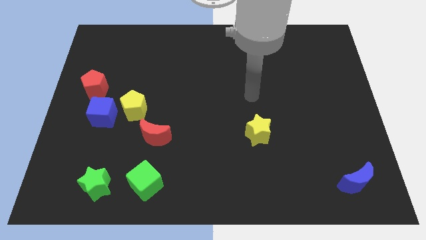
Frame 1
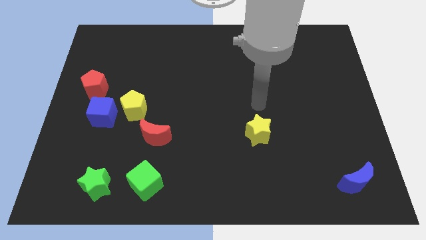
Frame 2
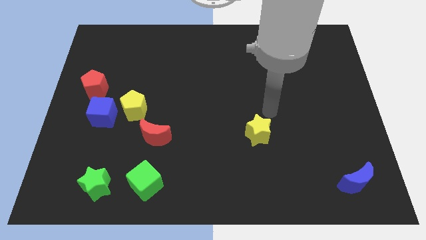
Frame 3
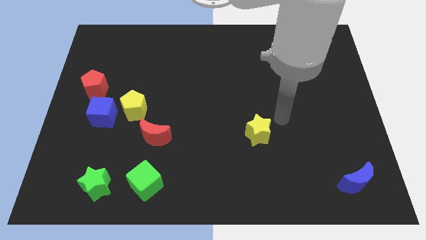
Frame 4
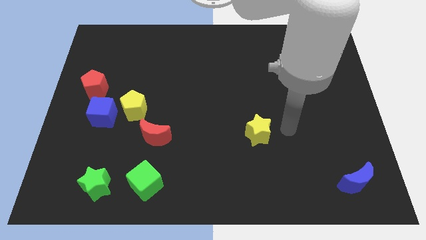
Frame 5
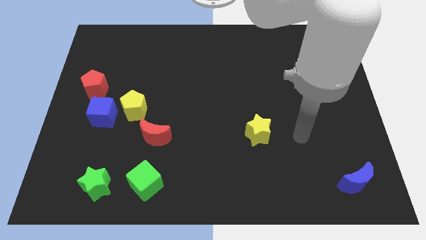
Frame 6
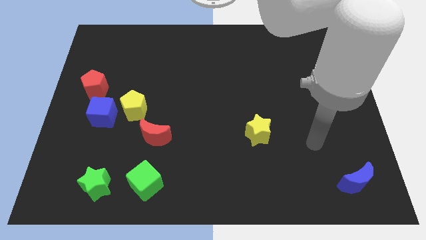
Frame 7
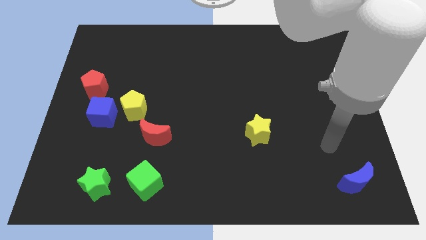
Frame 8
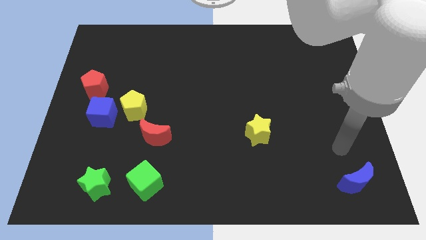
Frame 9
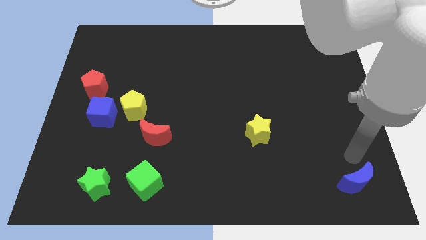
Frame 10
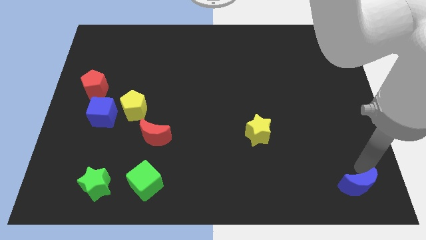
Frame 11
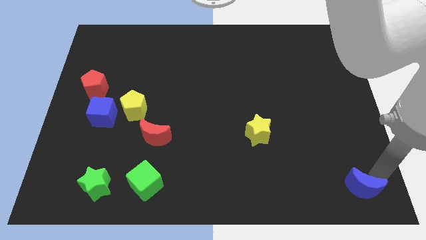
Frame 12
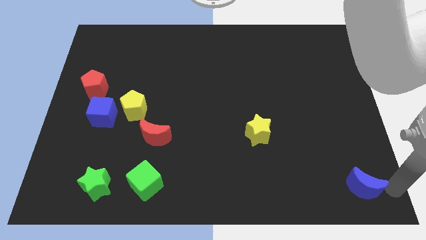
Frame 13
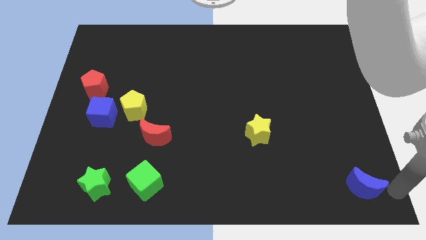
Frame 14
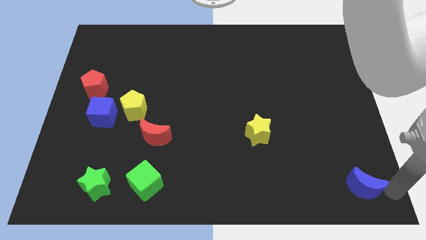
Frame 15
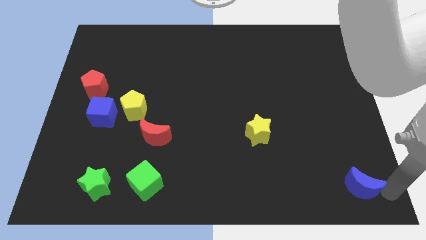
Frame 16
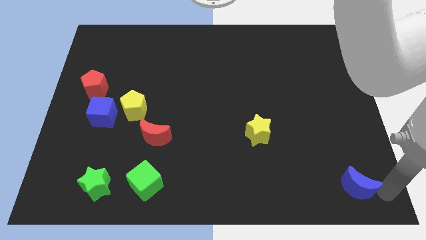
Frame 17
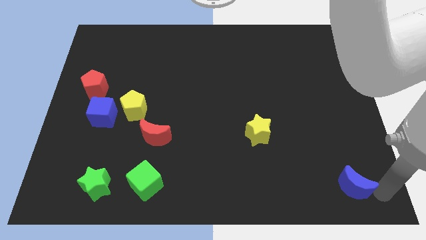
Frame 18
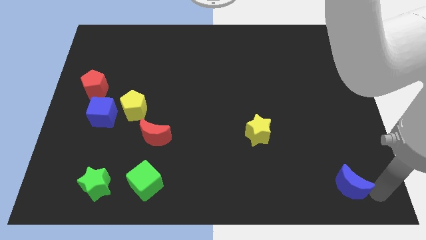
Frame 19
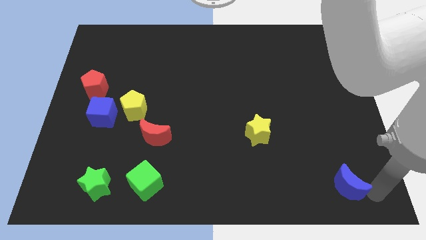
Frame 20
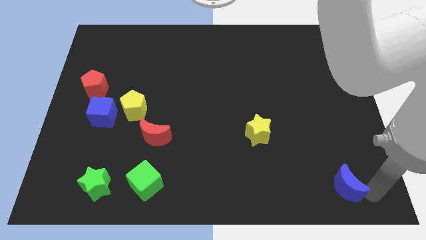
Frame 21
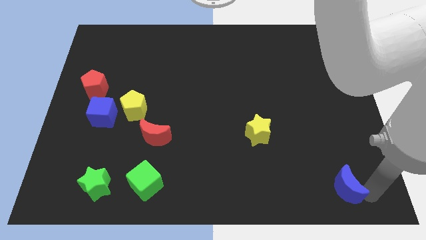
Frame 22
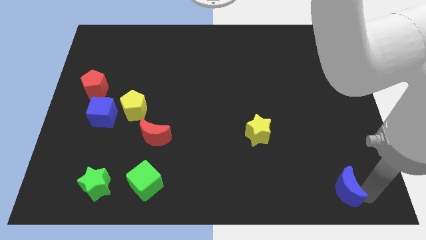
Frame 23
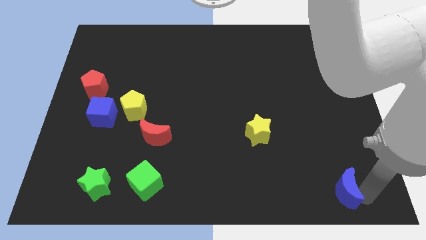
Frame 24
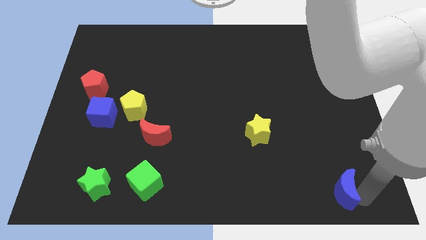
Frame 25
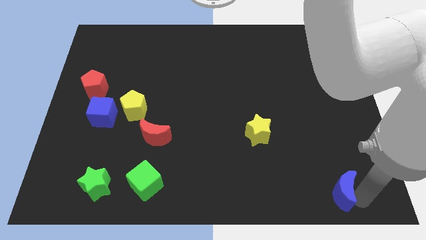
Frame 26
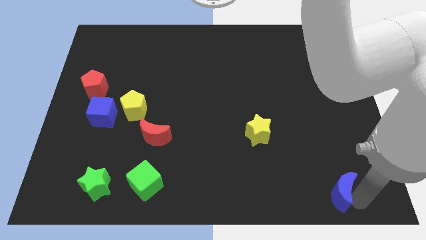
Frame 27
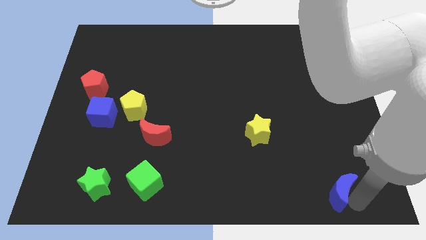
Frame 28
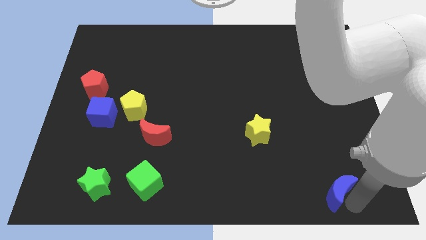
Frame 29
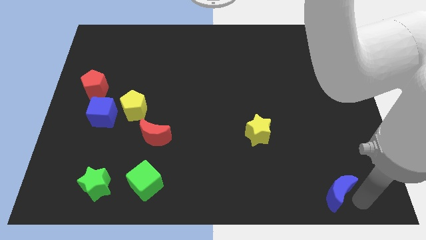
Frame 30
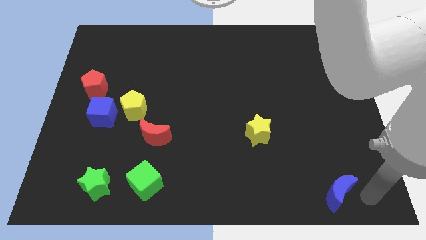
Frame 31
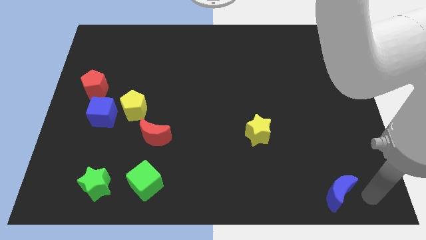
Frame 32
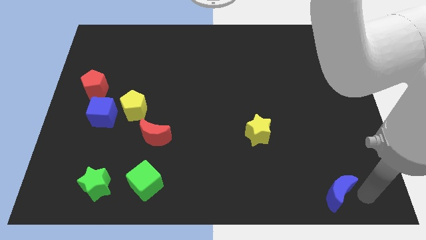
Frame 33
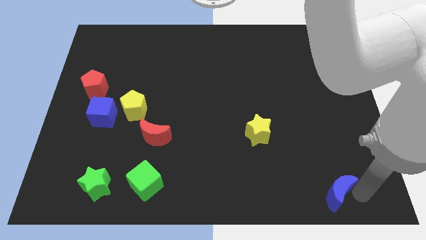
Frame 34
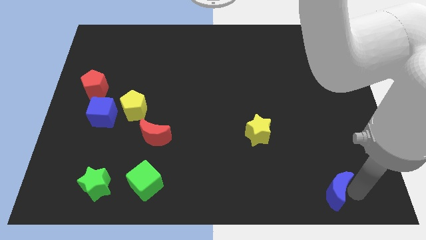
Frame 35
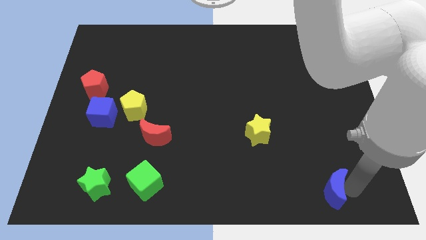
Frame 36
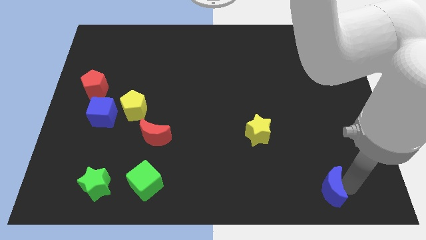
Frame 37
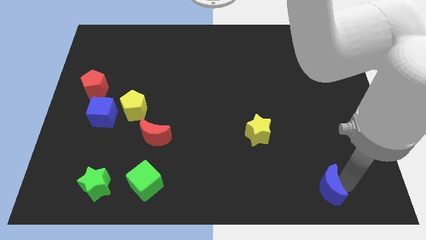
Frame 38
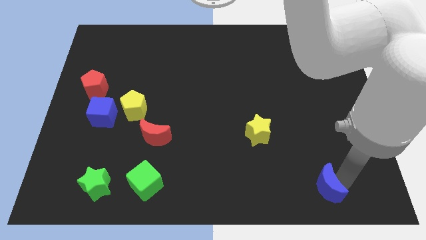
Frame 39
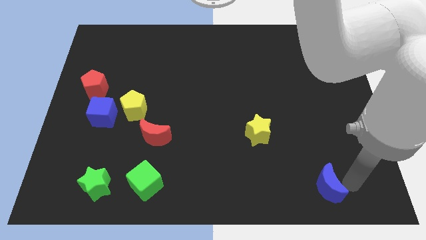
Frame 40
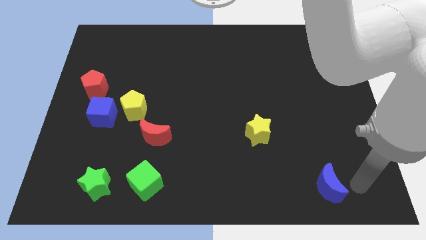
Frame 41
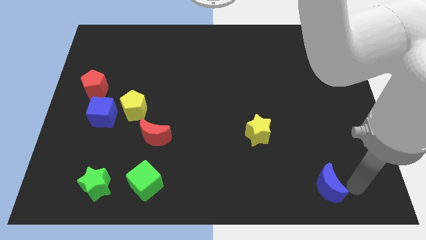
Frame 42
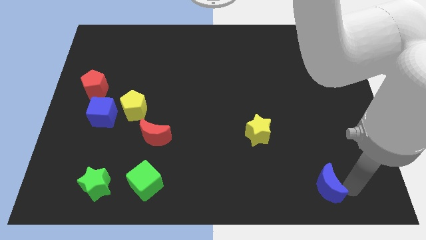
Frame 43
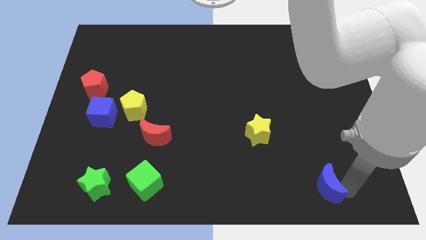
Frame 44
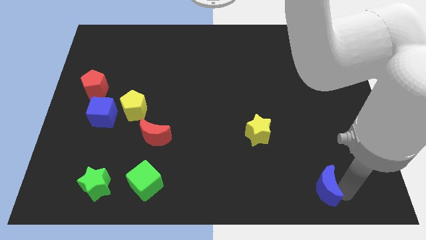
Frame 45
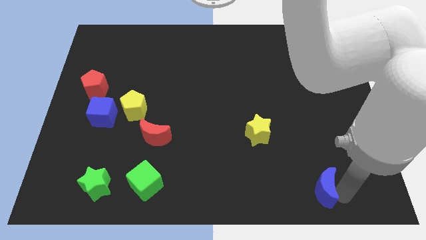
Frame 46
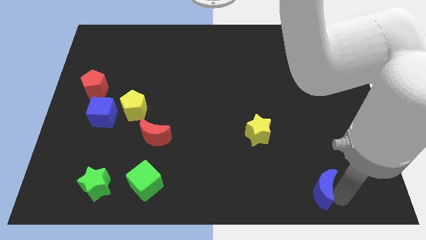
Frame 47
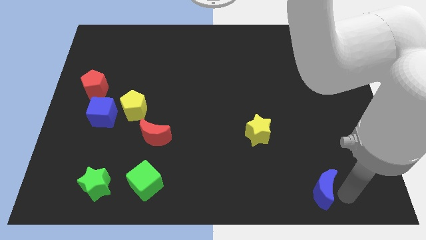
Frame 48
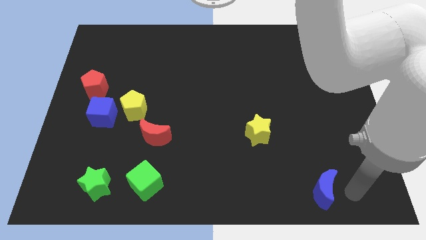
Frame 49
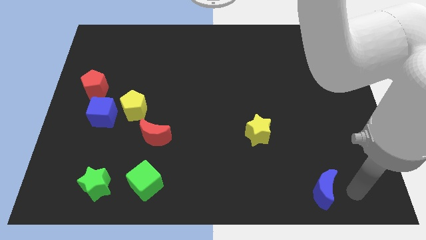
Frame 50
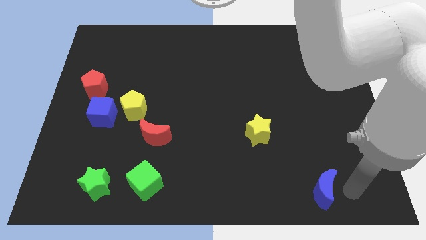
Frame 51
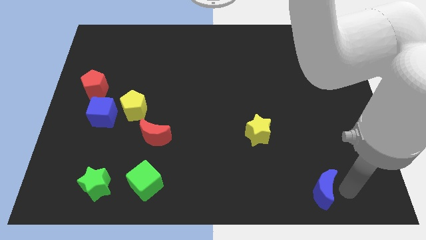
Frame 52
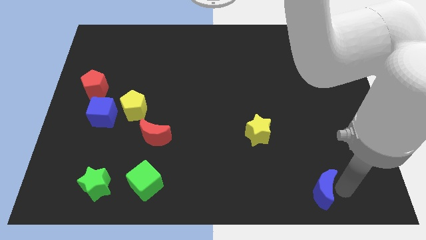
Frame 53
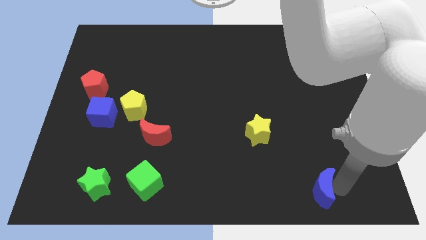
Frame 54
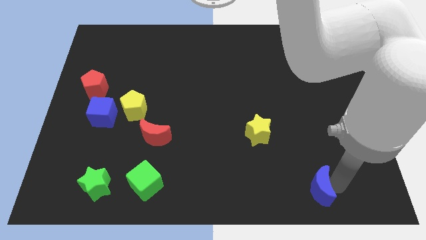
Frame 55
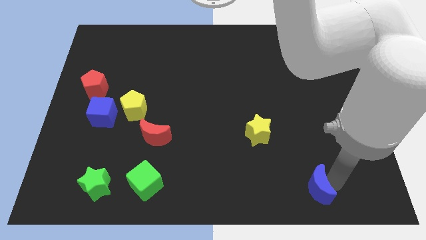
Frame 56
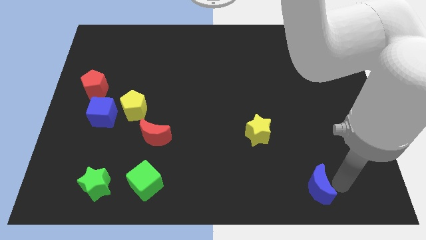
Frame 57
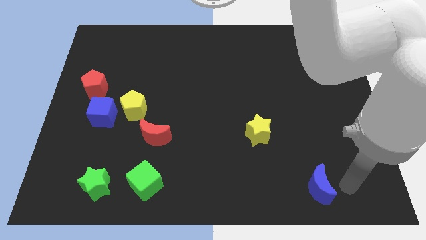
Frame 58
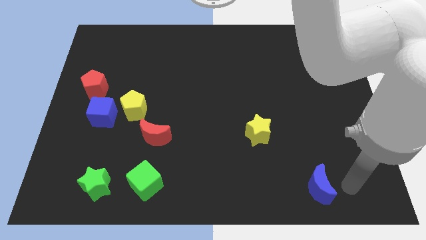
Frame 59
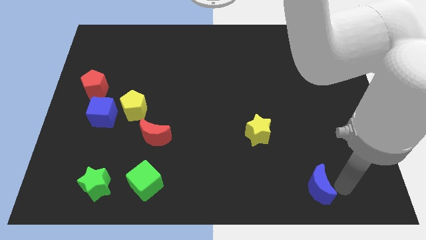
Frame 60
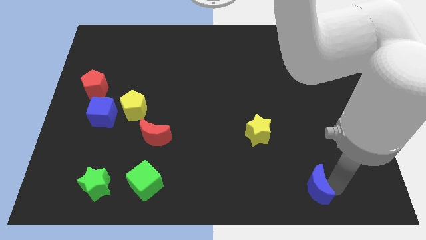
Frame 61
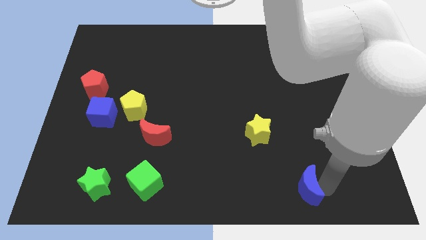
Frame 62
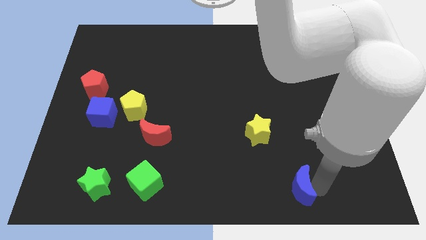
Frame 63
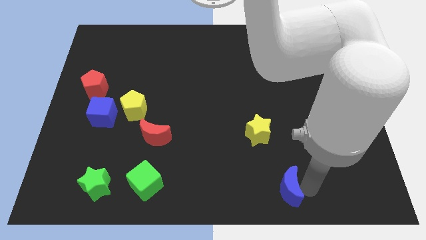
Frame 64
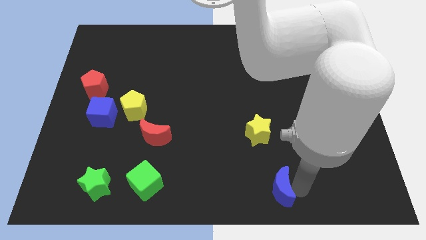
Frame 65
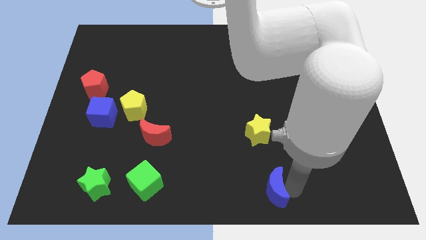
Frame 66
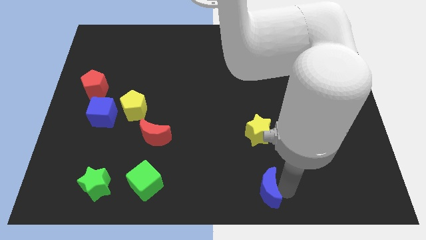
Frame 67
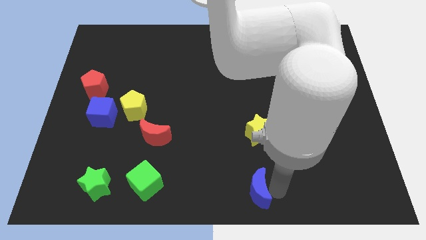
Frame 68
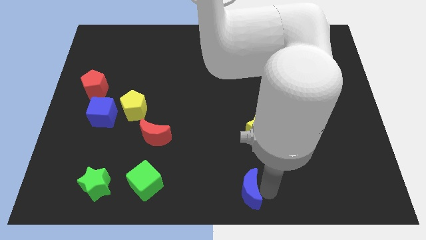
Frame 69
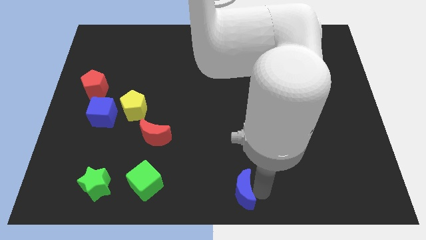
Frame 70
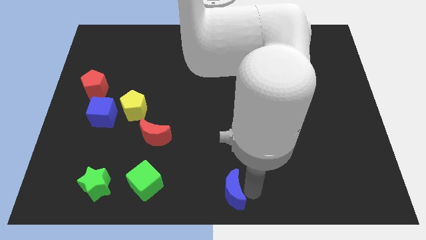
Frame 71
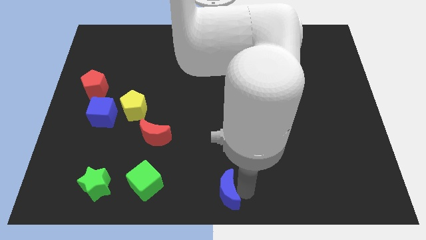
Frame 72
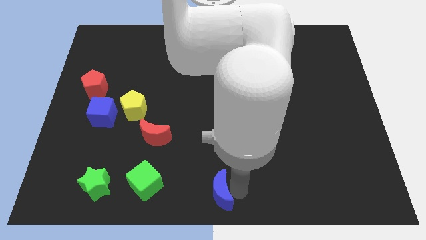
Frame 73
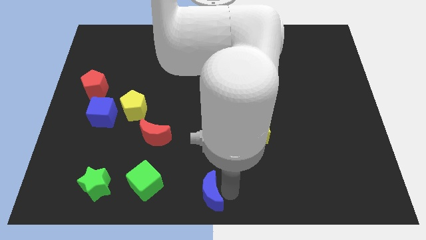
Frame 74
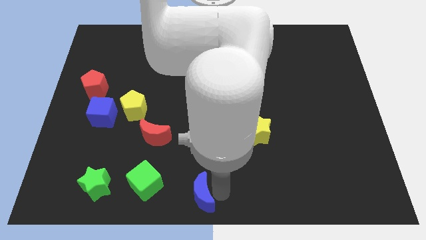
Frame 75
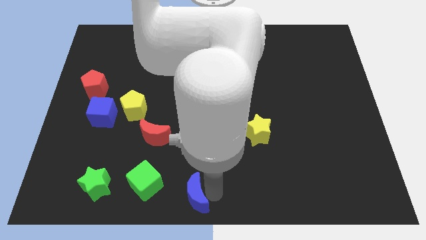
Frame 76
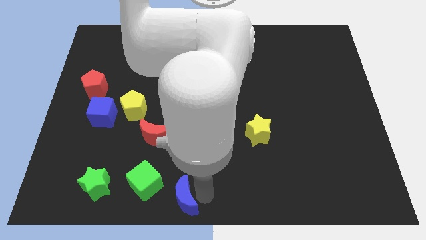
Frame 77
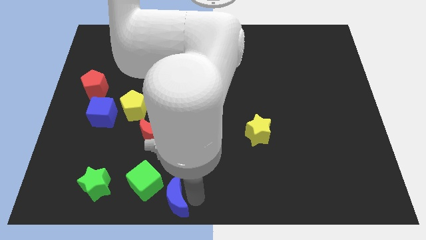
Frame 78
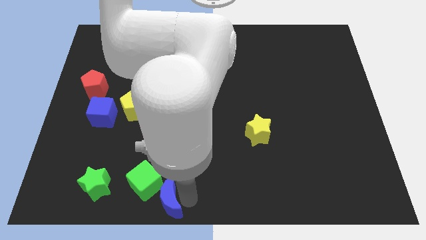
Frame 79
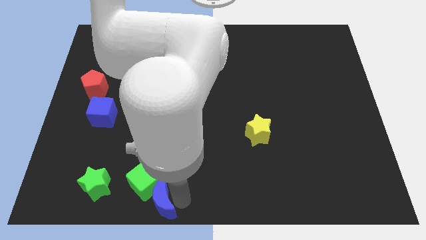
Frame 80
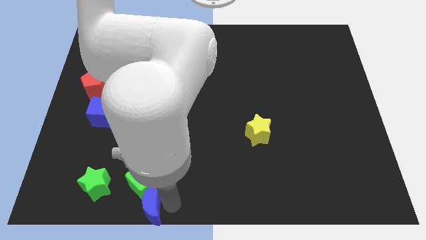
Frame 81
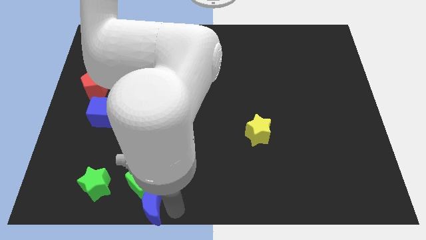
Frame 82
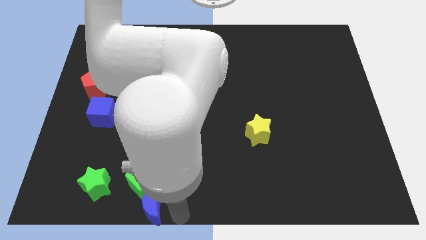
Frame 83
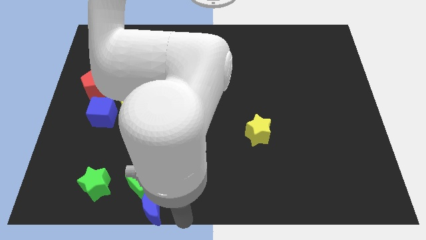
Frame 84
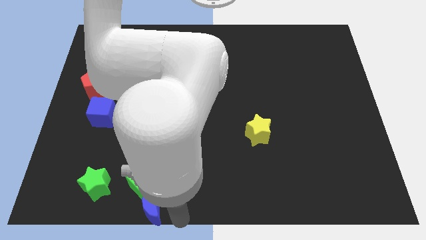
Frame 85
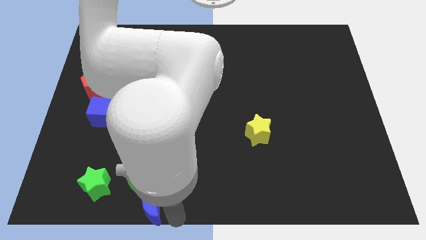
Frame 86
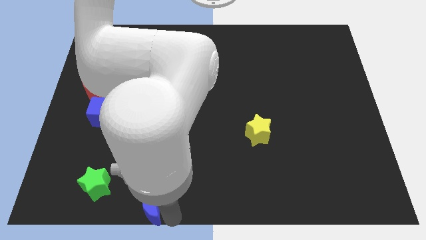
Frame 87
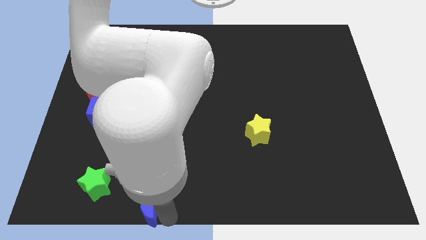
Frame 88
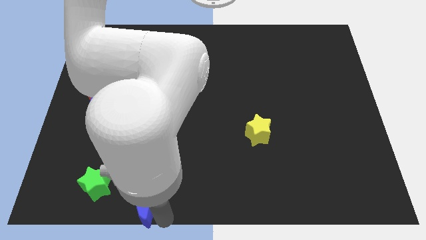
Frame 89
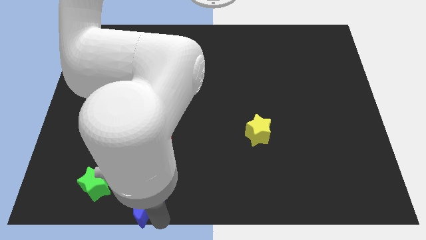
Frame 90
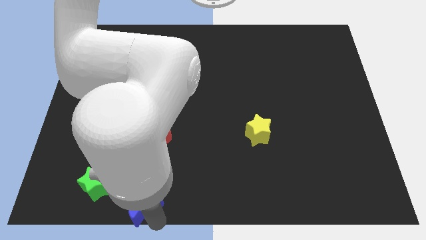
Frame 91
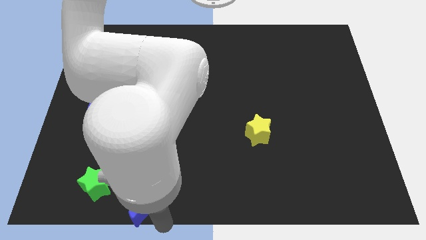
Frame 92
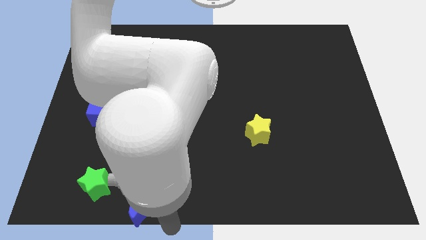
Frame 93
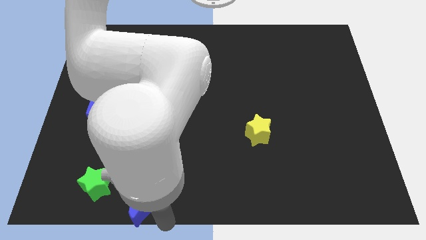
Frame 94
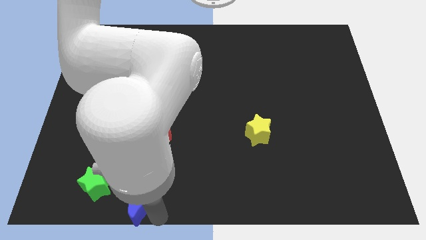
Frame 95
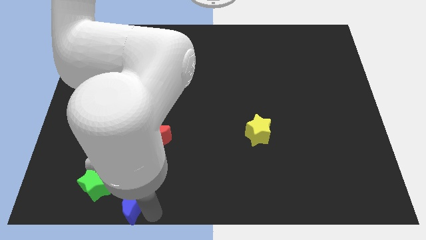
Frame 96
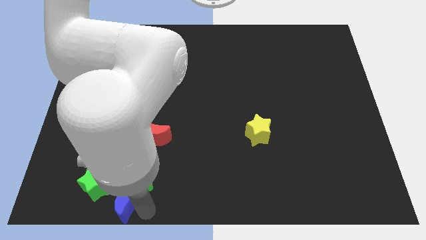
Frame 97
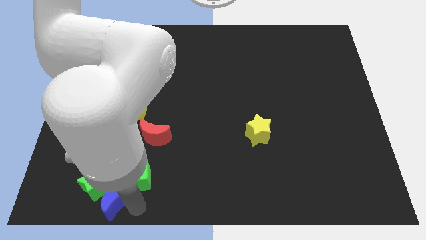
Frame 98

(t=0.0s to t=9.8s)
move the blue moon close to the green star
